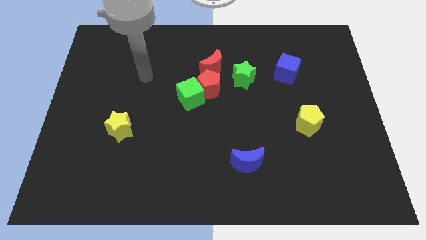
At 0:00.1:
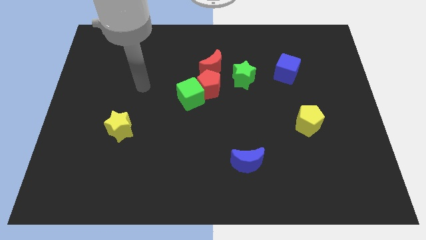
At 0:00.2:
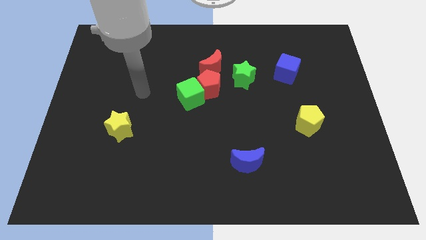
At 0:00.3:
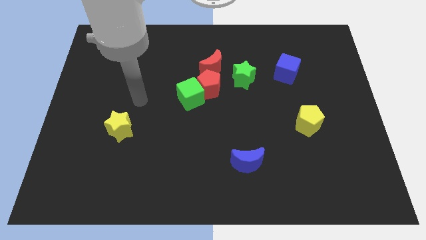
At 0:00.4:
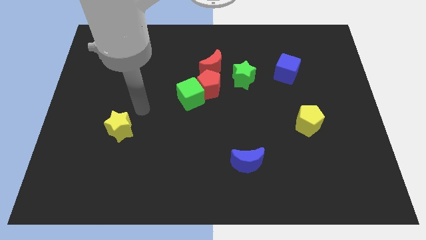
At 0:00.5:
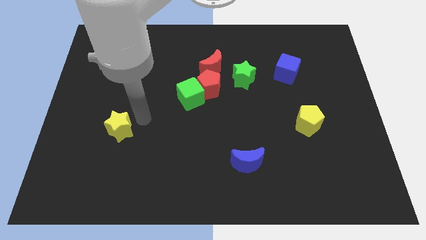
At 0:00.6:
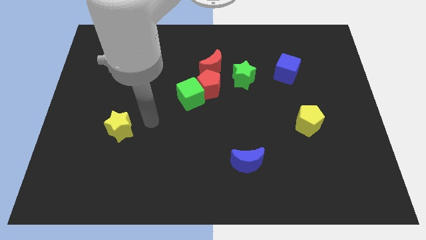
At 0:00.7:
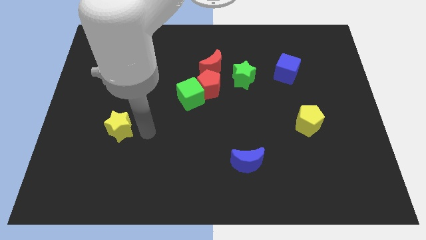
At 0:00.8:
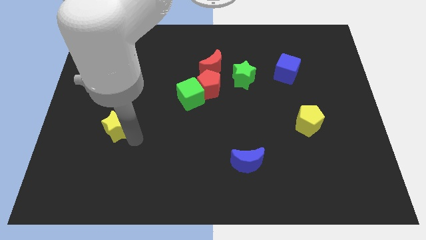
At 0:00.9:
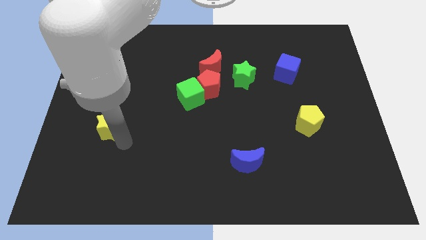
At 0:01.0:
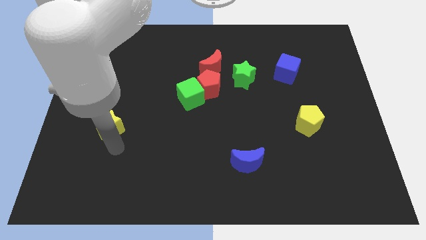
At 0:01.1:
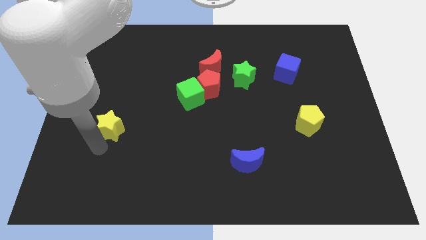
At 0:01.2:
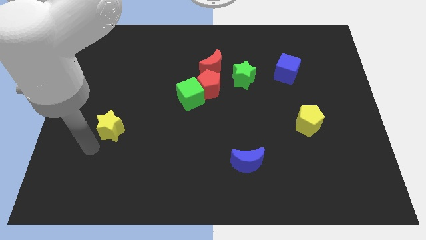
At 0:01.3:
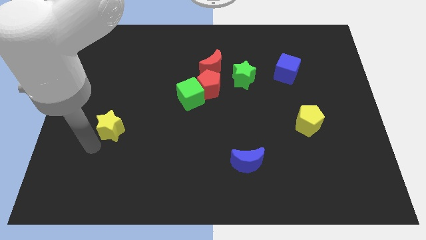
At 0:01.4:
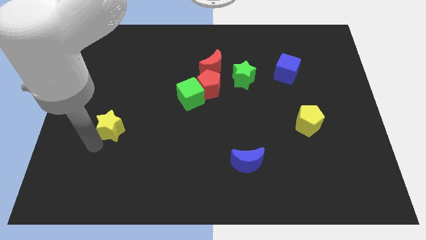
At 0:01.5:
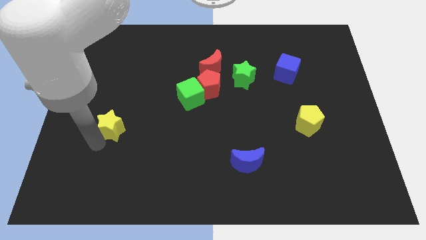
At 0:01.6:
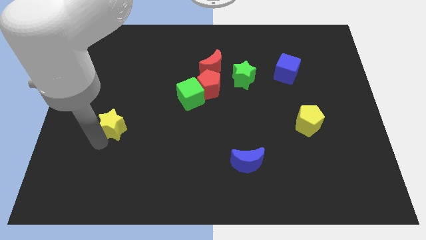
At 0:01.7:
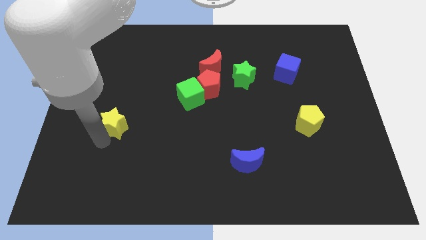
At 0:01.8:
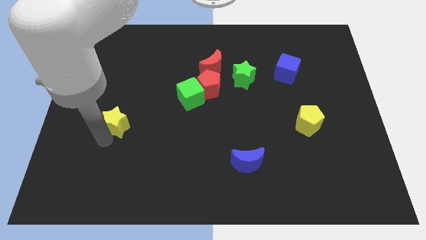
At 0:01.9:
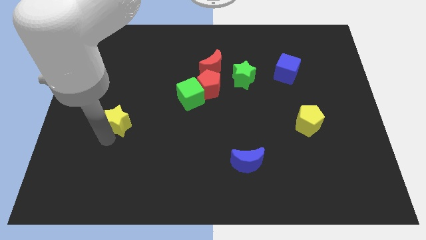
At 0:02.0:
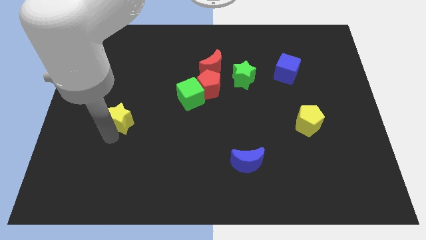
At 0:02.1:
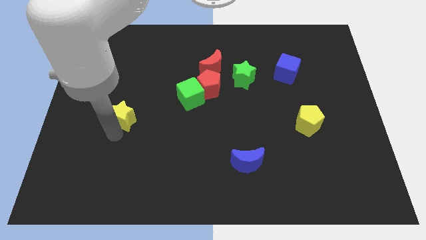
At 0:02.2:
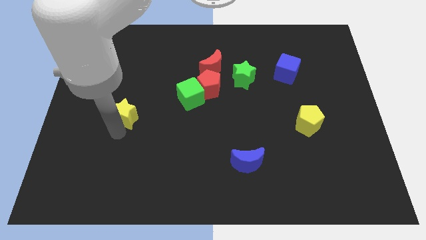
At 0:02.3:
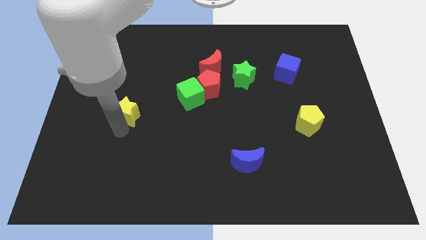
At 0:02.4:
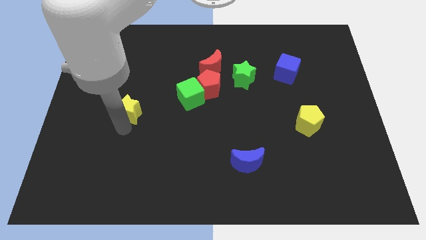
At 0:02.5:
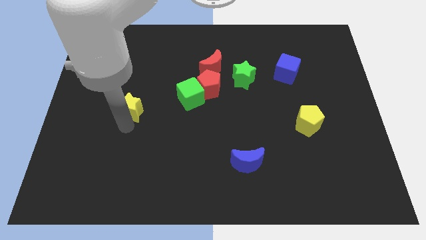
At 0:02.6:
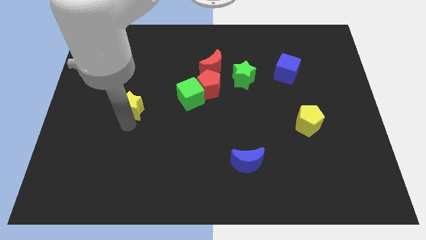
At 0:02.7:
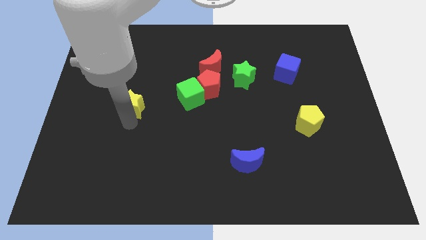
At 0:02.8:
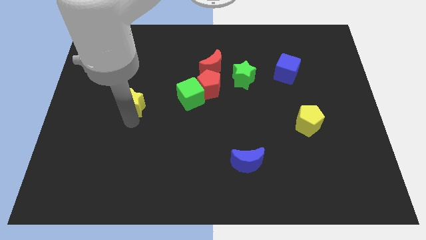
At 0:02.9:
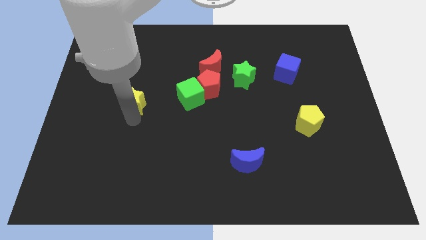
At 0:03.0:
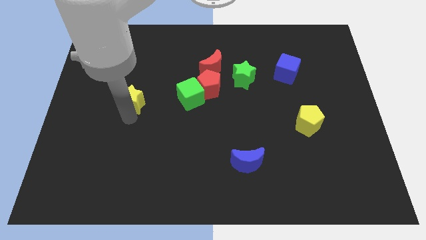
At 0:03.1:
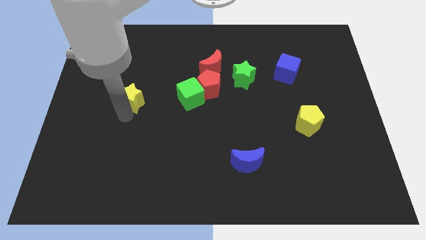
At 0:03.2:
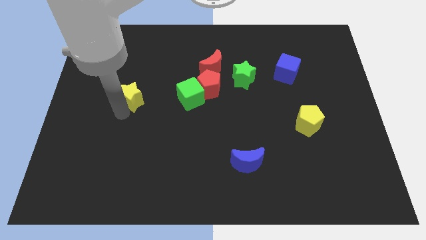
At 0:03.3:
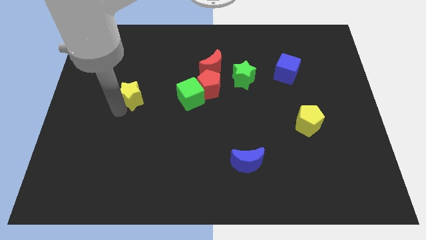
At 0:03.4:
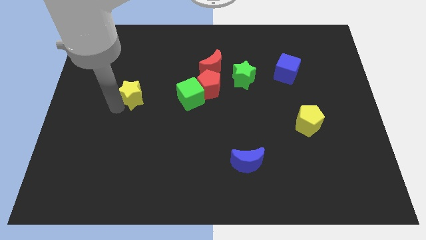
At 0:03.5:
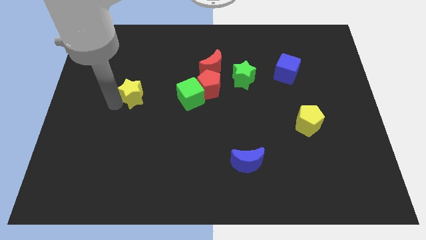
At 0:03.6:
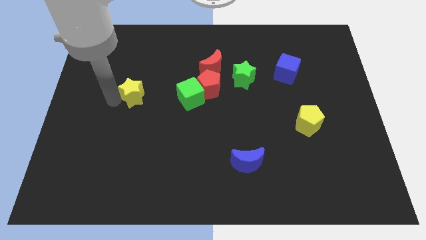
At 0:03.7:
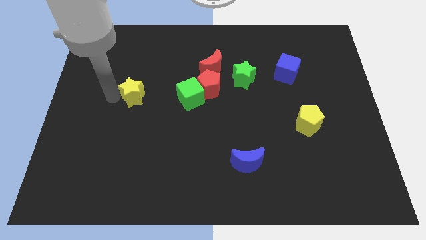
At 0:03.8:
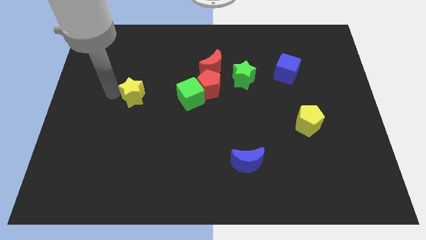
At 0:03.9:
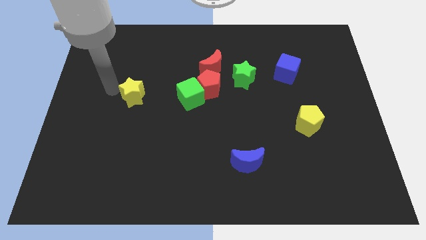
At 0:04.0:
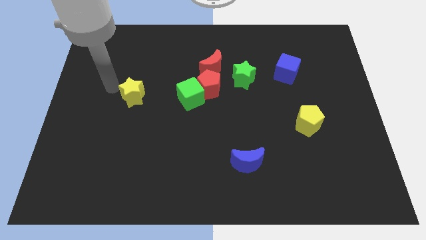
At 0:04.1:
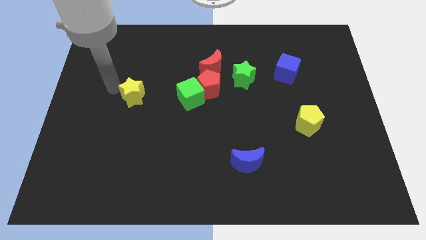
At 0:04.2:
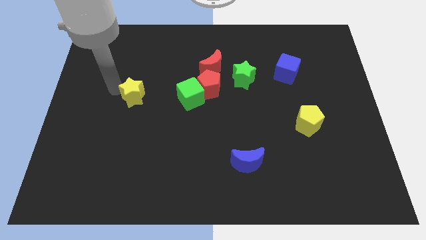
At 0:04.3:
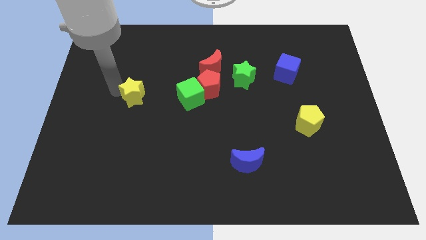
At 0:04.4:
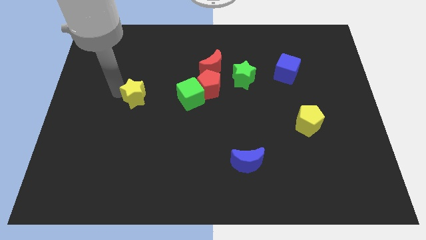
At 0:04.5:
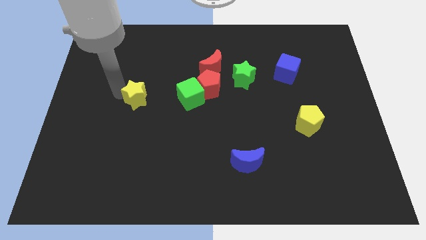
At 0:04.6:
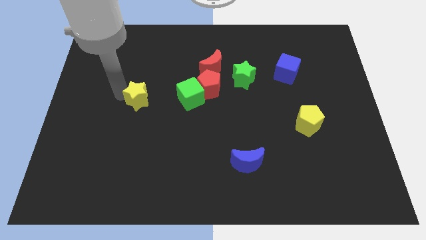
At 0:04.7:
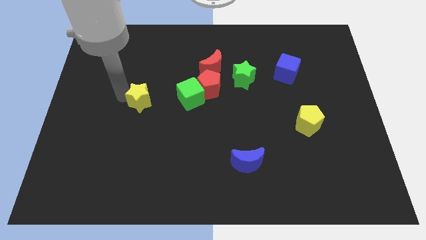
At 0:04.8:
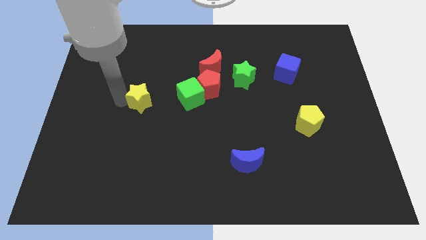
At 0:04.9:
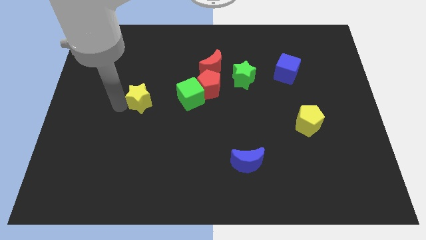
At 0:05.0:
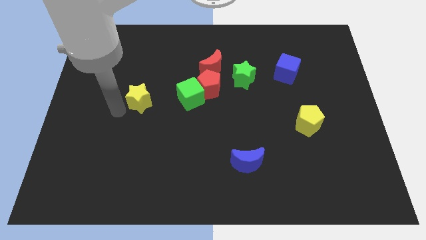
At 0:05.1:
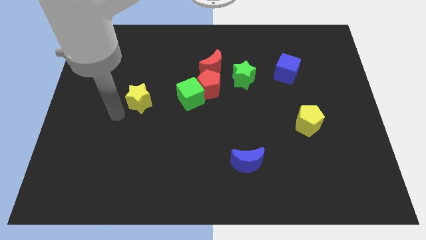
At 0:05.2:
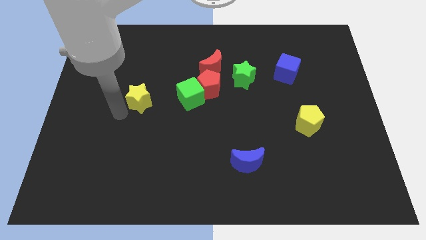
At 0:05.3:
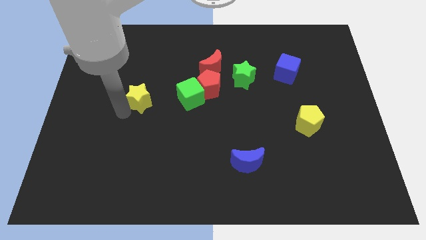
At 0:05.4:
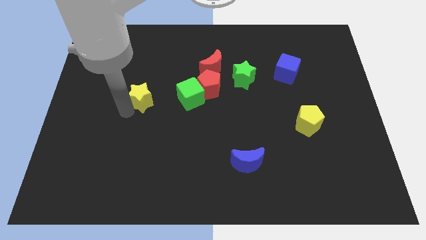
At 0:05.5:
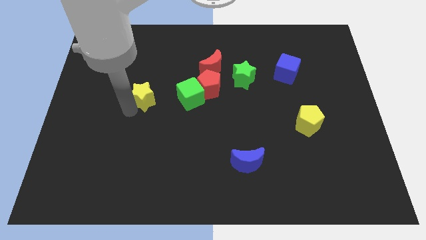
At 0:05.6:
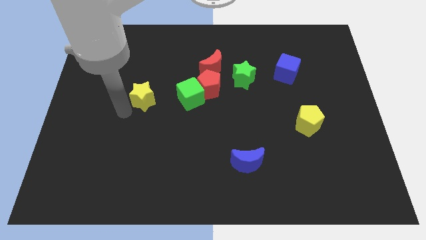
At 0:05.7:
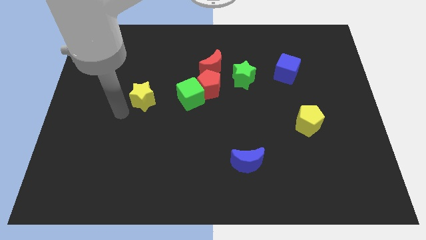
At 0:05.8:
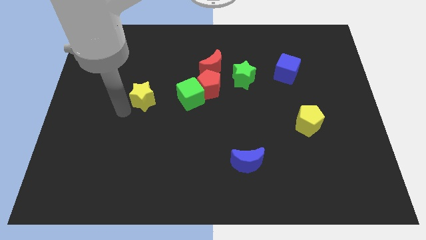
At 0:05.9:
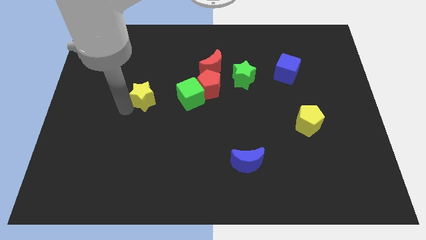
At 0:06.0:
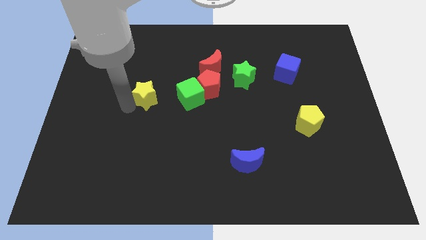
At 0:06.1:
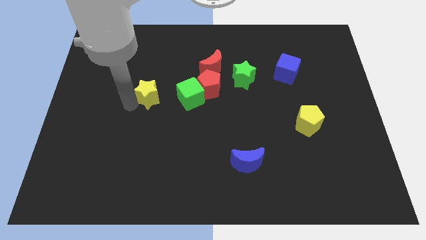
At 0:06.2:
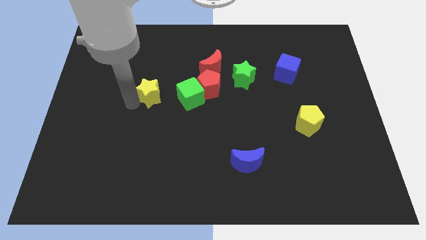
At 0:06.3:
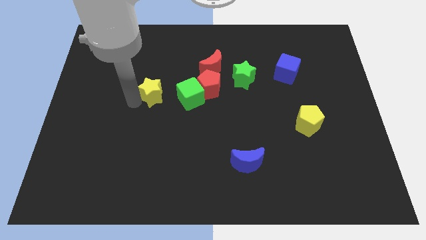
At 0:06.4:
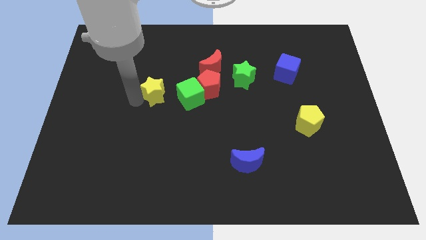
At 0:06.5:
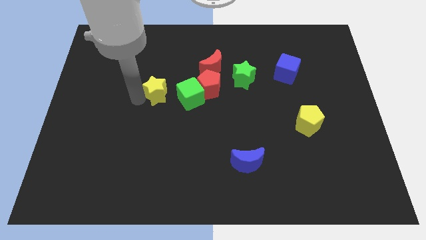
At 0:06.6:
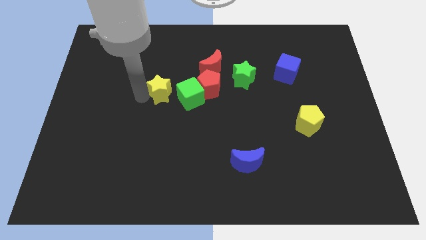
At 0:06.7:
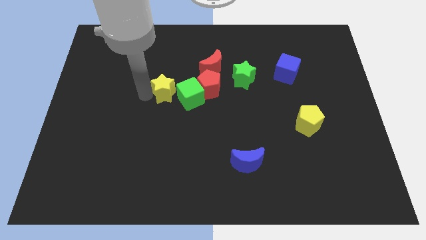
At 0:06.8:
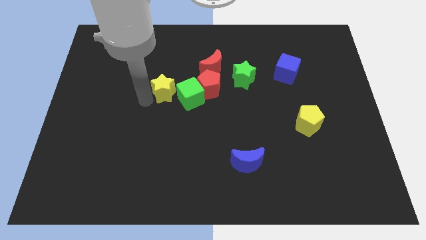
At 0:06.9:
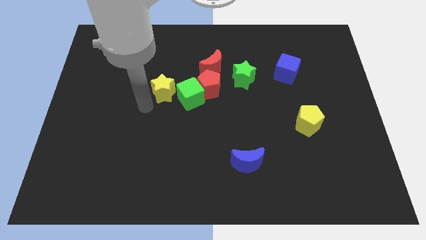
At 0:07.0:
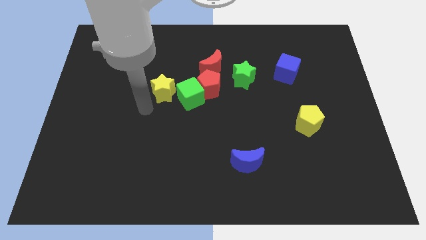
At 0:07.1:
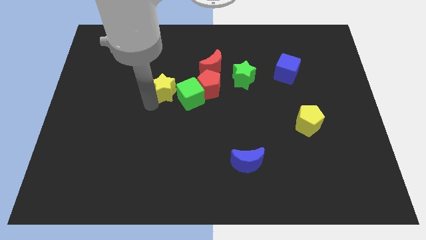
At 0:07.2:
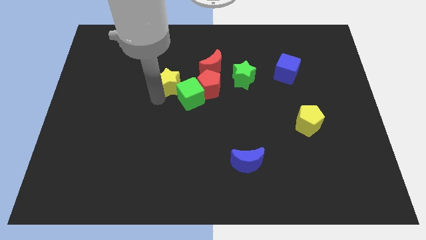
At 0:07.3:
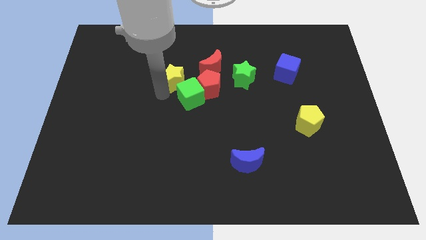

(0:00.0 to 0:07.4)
push the yellow star diagonally up and to the left of the red pentagon

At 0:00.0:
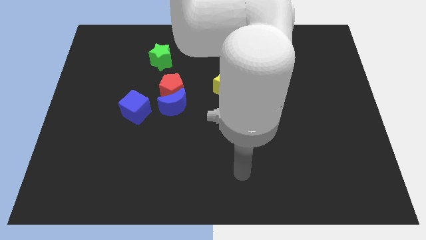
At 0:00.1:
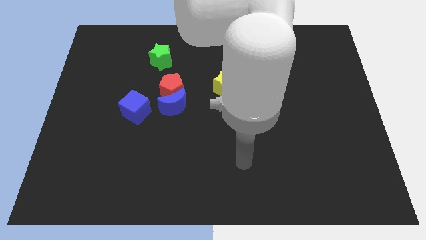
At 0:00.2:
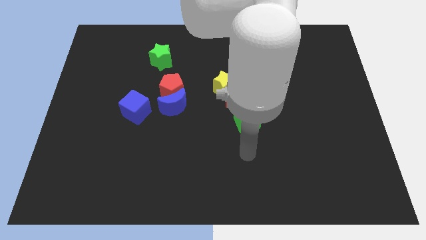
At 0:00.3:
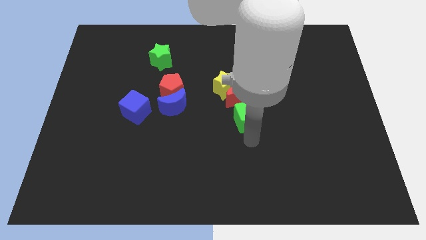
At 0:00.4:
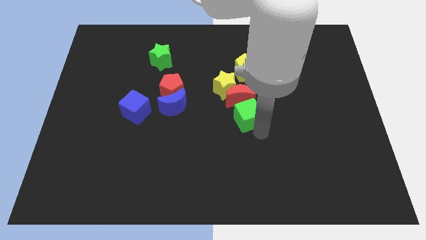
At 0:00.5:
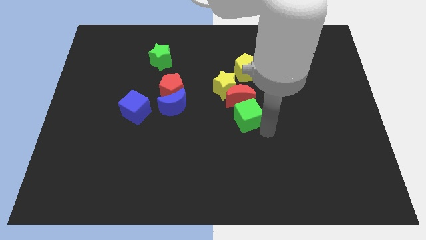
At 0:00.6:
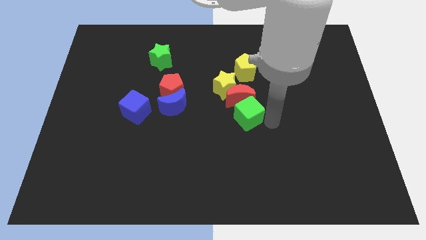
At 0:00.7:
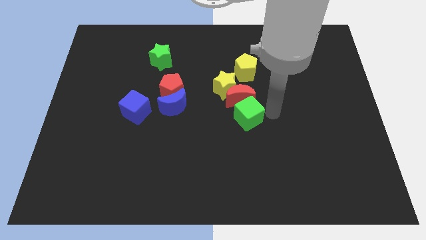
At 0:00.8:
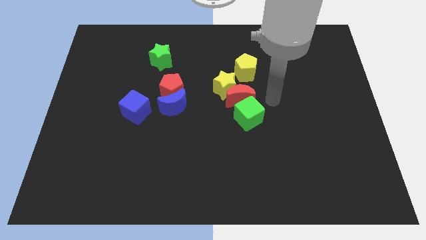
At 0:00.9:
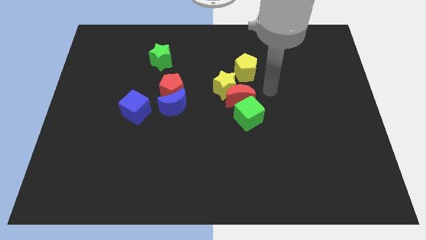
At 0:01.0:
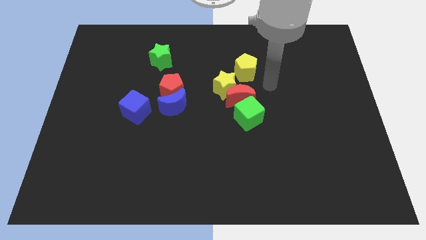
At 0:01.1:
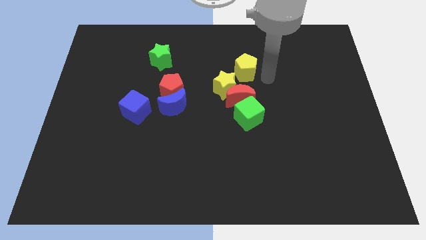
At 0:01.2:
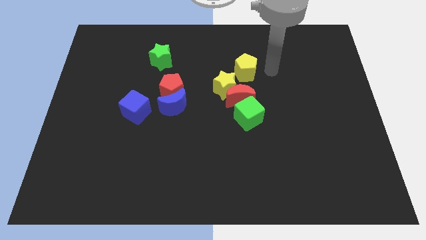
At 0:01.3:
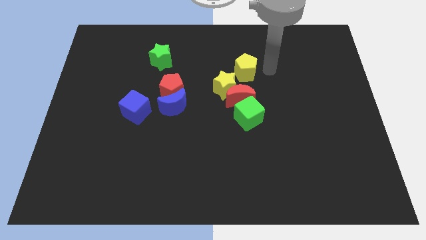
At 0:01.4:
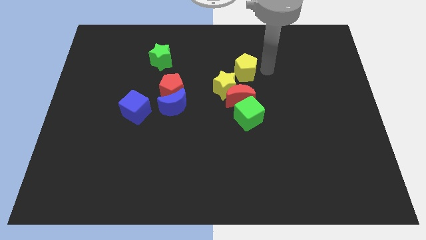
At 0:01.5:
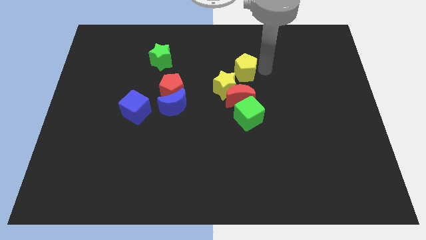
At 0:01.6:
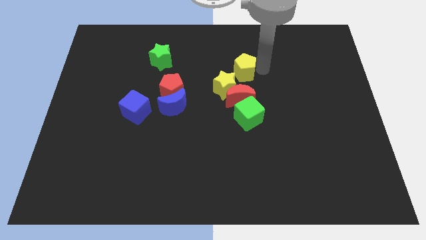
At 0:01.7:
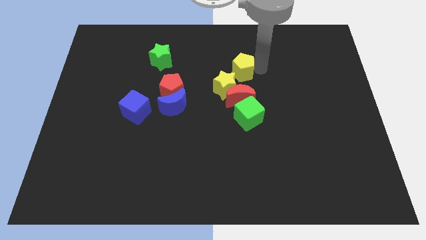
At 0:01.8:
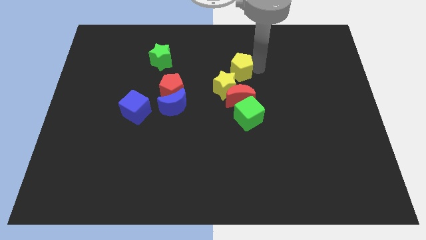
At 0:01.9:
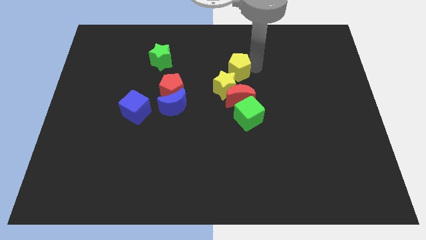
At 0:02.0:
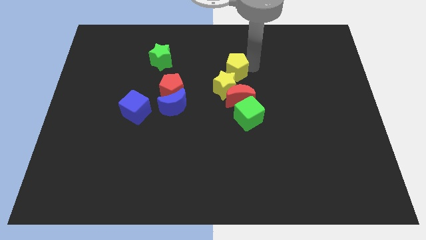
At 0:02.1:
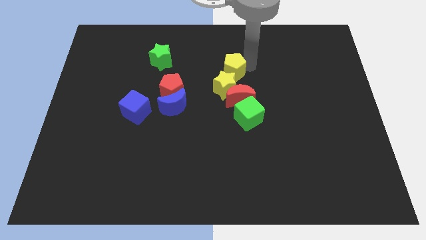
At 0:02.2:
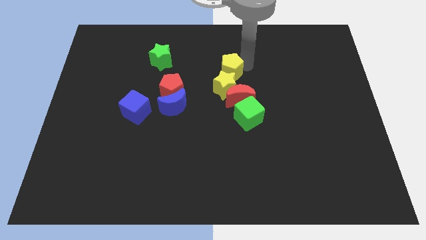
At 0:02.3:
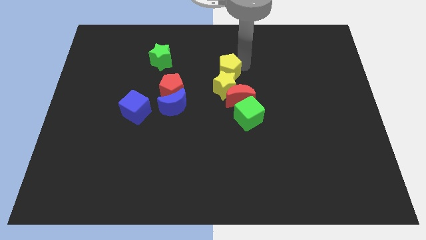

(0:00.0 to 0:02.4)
put the yellow pentagon to the top left side of the red moon
